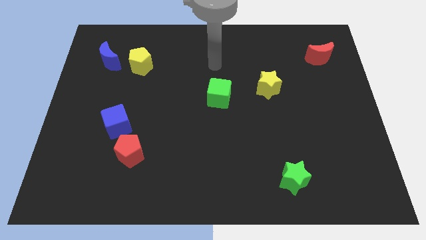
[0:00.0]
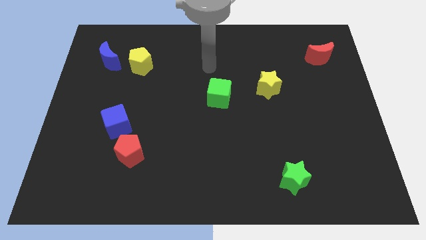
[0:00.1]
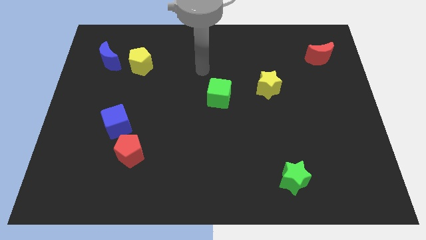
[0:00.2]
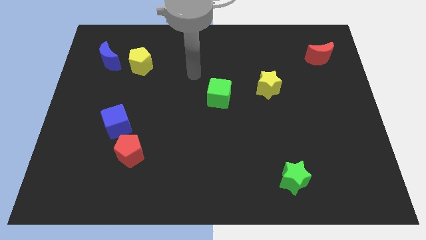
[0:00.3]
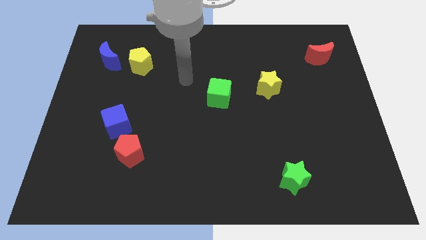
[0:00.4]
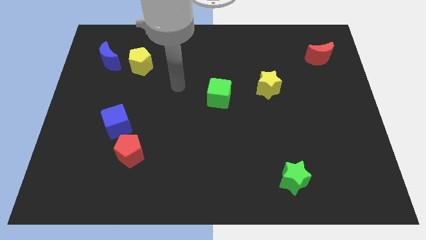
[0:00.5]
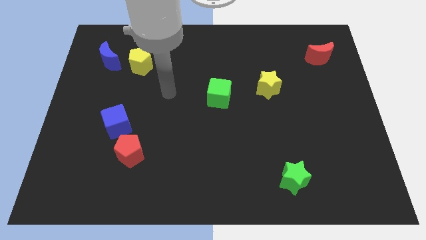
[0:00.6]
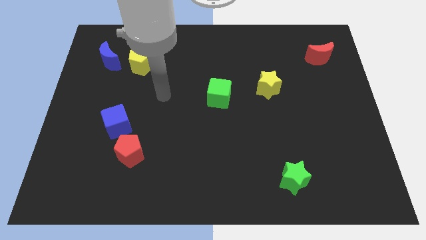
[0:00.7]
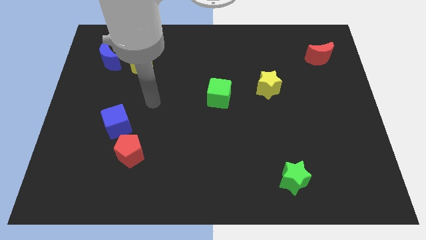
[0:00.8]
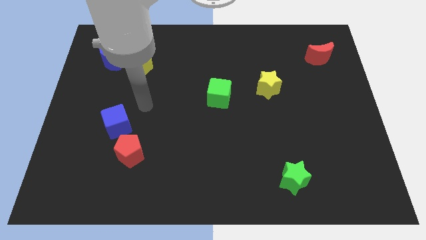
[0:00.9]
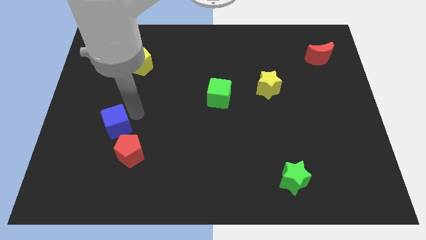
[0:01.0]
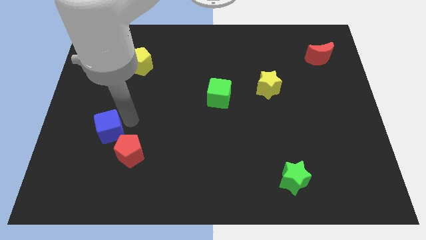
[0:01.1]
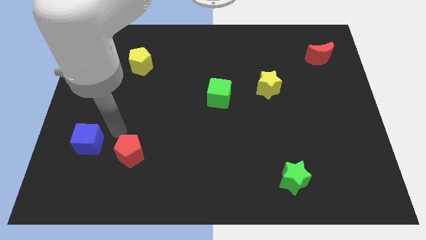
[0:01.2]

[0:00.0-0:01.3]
move the red pentagon away from the blue cube

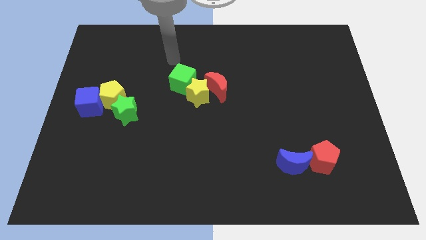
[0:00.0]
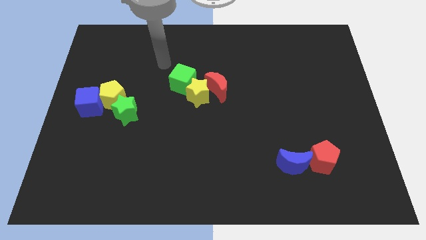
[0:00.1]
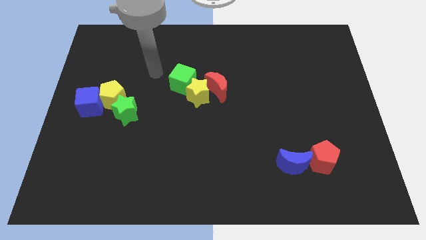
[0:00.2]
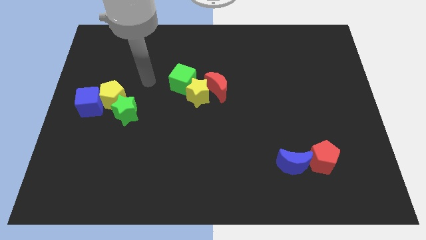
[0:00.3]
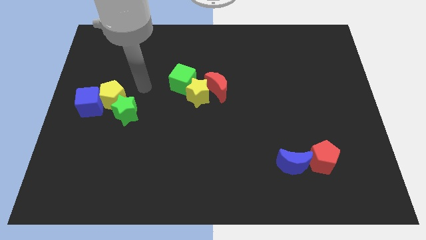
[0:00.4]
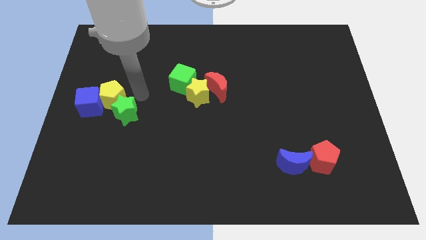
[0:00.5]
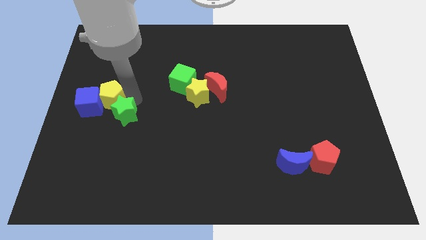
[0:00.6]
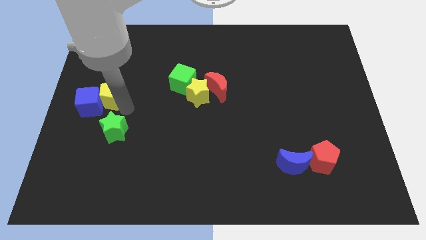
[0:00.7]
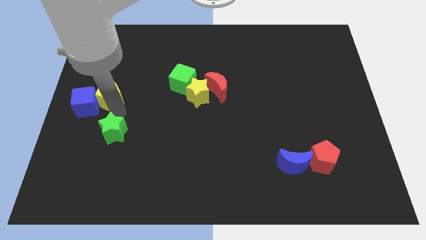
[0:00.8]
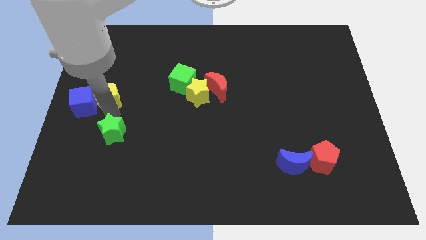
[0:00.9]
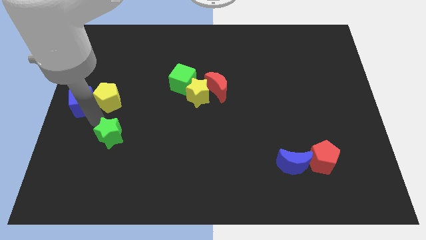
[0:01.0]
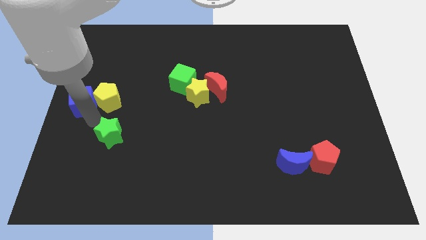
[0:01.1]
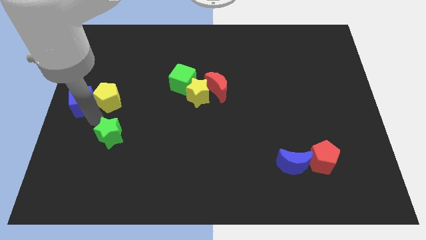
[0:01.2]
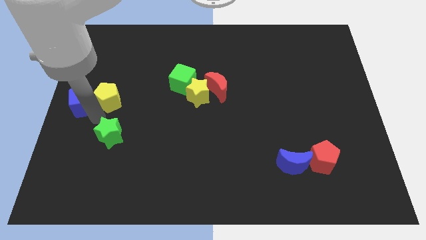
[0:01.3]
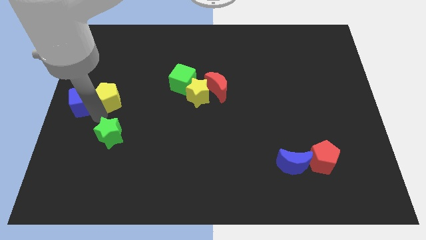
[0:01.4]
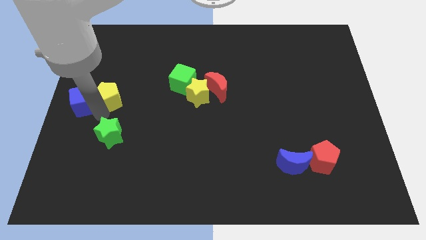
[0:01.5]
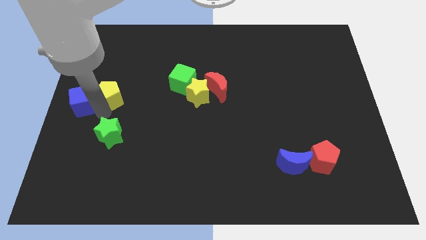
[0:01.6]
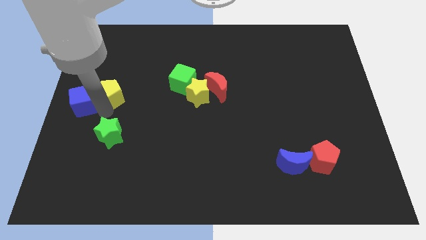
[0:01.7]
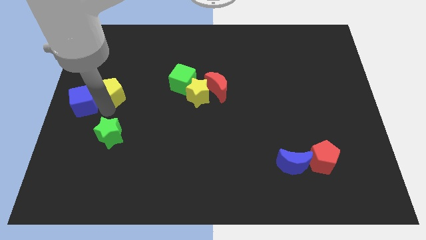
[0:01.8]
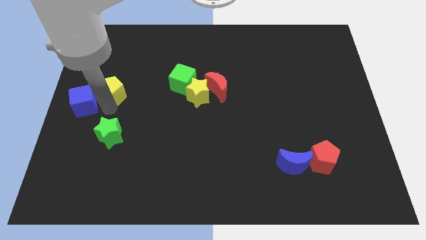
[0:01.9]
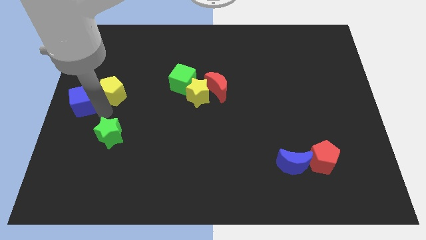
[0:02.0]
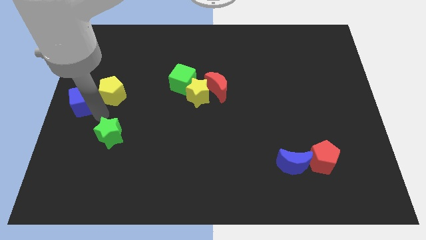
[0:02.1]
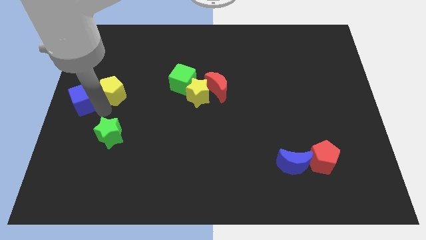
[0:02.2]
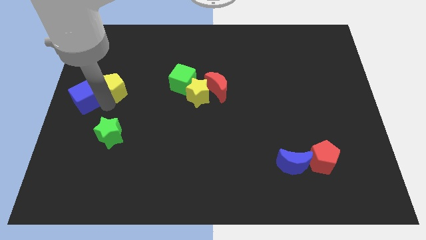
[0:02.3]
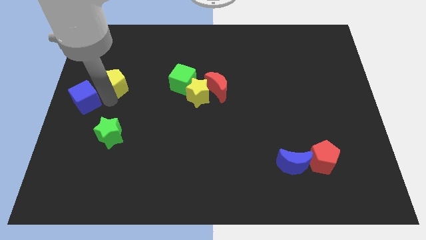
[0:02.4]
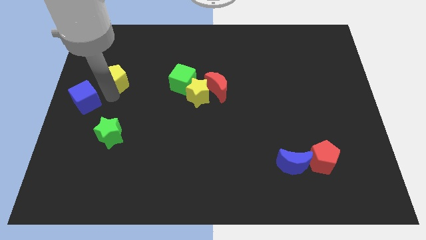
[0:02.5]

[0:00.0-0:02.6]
pull the yellow pentagon apart from the blue cube and green star

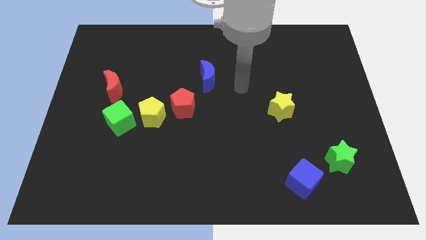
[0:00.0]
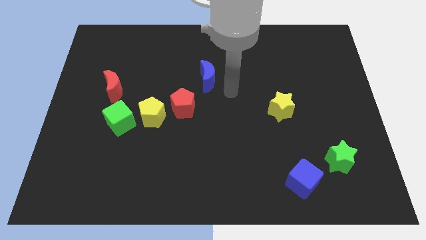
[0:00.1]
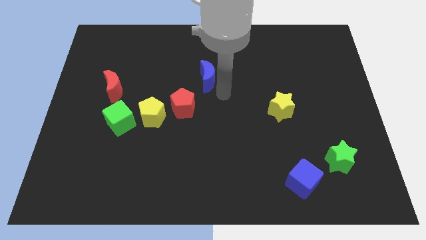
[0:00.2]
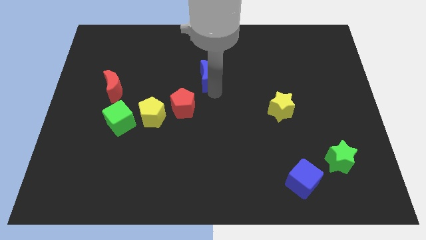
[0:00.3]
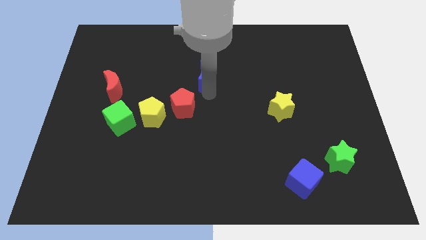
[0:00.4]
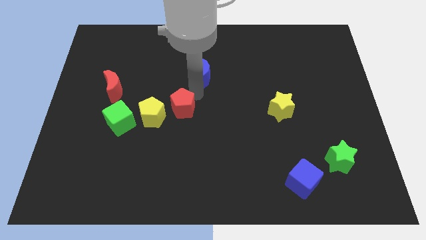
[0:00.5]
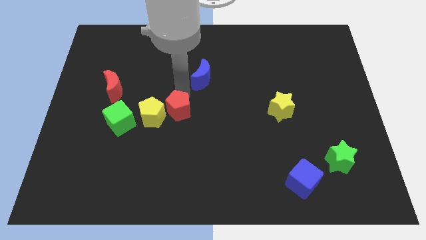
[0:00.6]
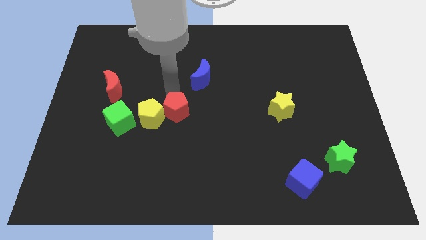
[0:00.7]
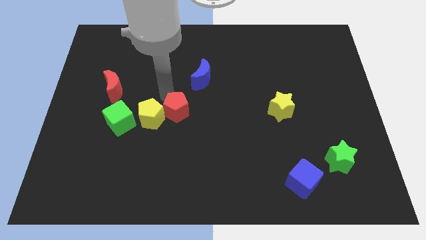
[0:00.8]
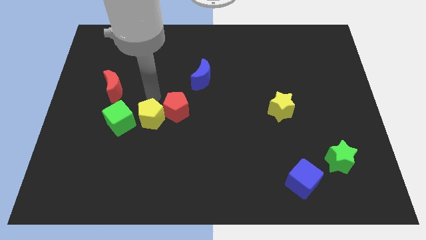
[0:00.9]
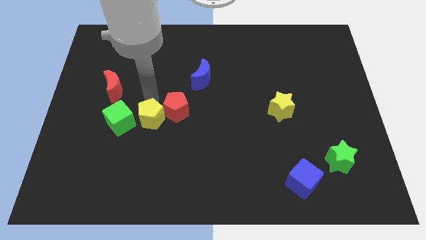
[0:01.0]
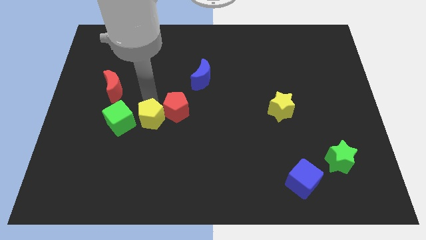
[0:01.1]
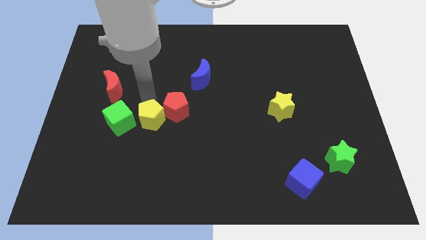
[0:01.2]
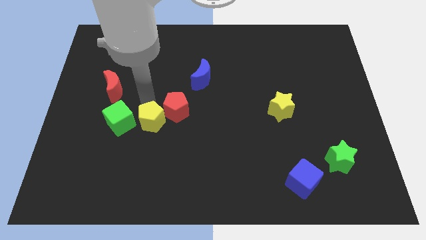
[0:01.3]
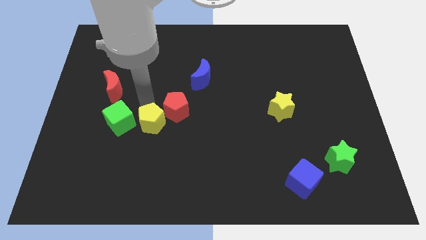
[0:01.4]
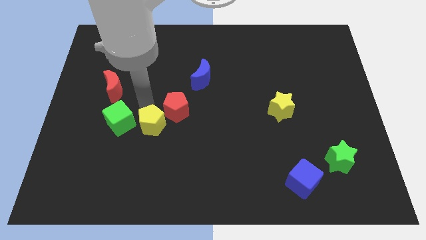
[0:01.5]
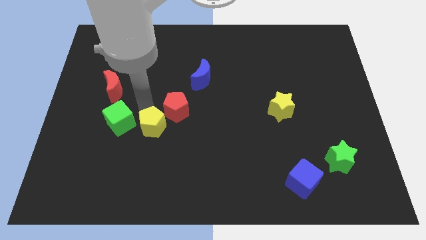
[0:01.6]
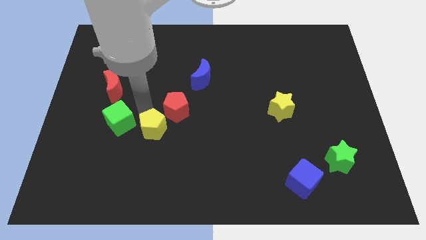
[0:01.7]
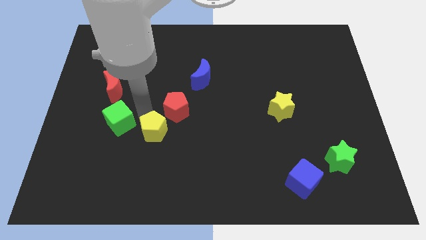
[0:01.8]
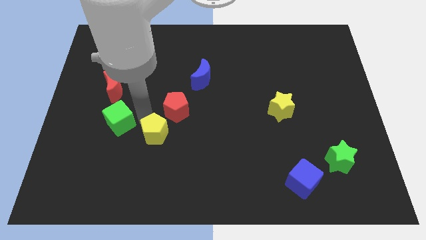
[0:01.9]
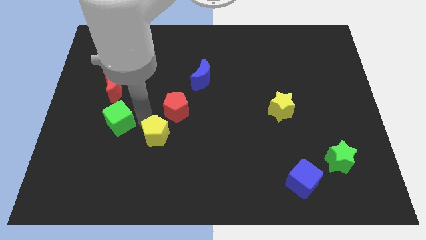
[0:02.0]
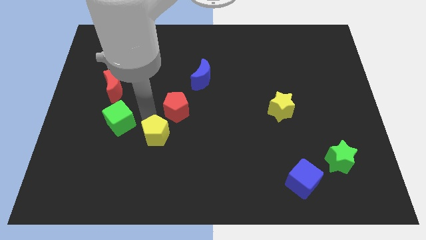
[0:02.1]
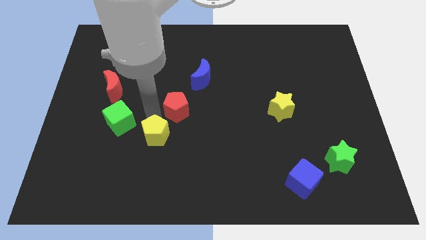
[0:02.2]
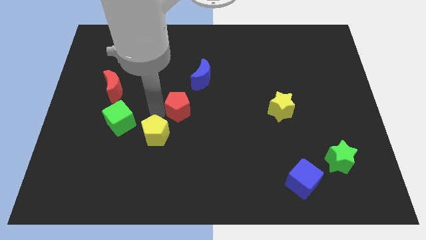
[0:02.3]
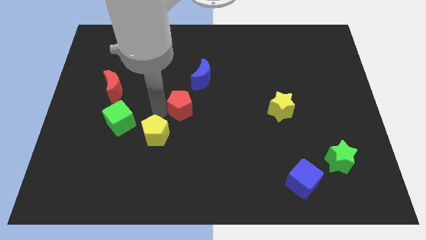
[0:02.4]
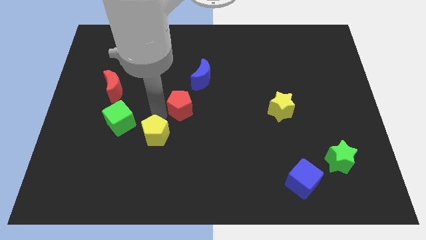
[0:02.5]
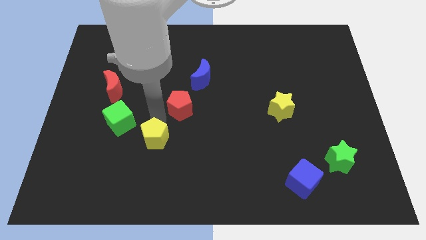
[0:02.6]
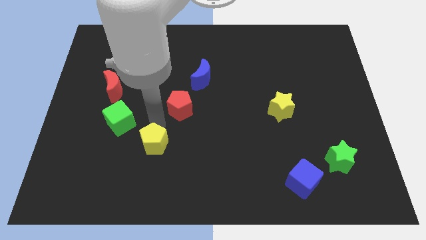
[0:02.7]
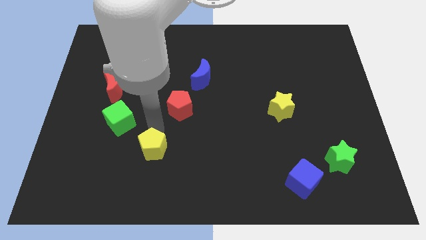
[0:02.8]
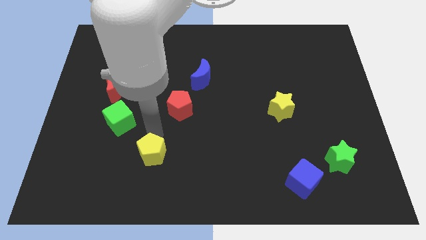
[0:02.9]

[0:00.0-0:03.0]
pull the yellow pentagon apart from the green cube and red pentagon

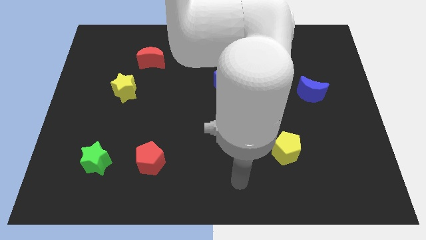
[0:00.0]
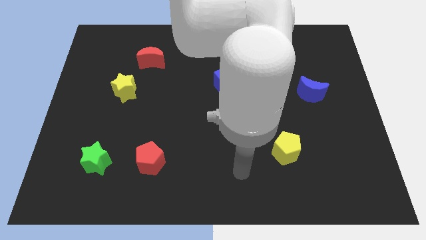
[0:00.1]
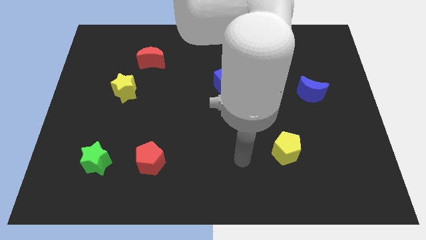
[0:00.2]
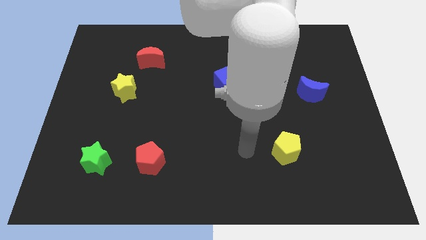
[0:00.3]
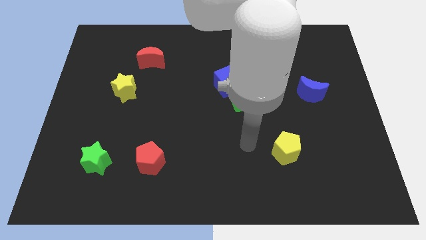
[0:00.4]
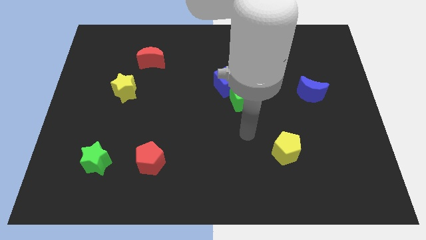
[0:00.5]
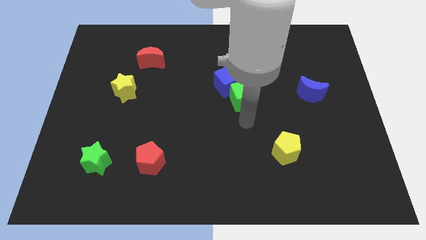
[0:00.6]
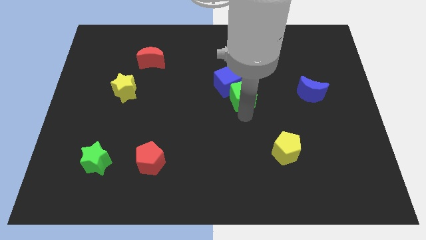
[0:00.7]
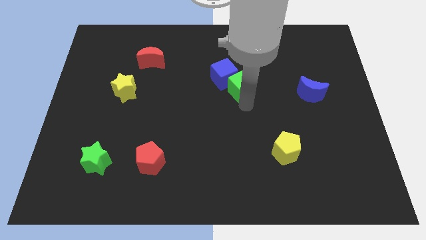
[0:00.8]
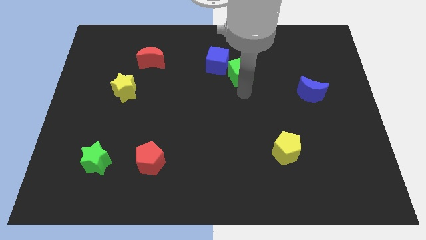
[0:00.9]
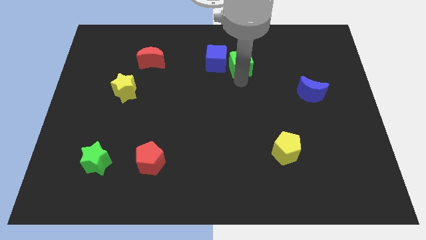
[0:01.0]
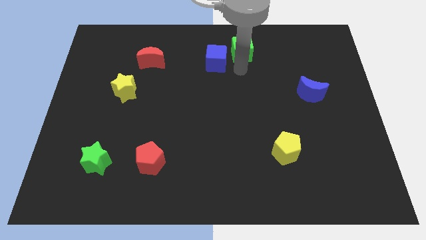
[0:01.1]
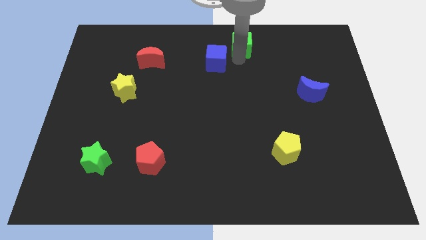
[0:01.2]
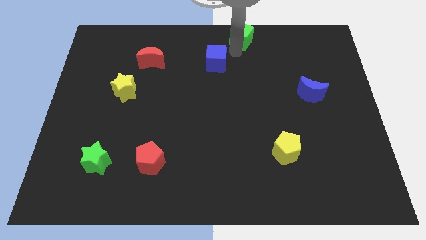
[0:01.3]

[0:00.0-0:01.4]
separate the blue cube from the green cube

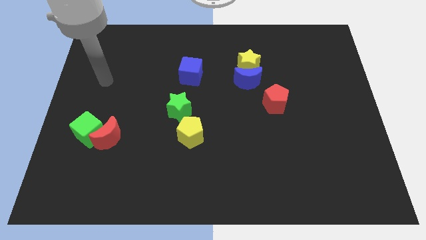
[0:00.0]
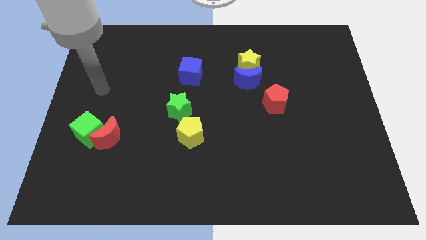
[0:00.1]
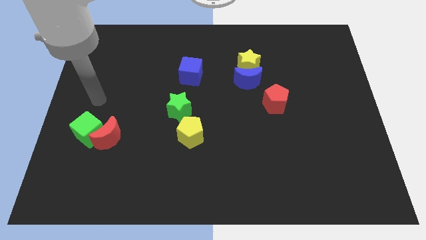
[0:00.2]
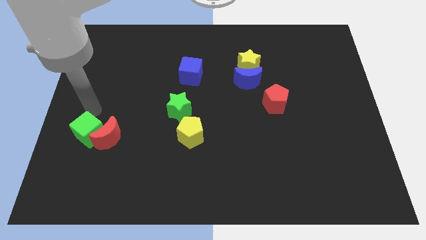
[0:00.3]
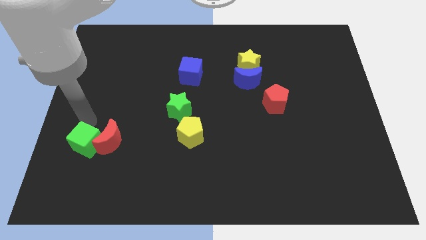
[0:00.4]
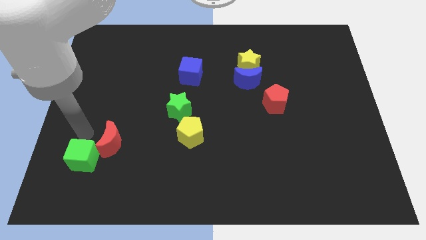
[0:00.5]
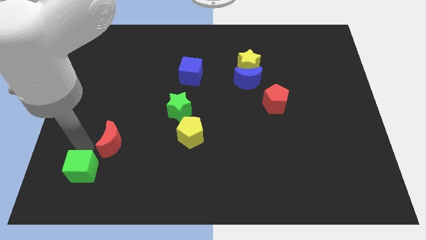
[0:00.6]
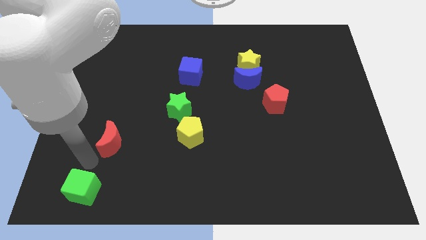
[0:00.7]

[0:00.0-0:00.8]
move the red moon away from the green cube

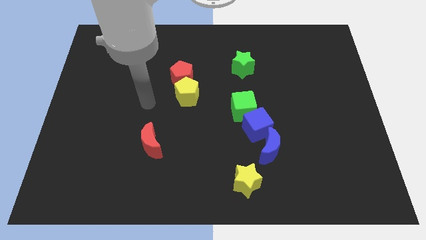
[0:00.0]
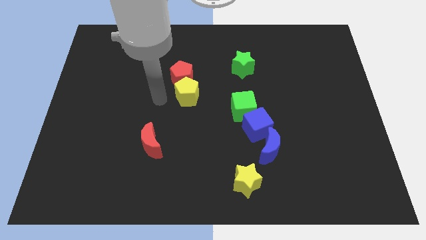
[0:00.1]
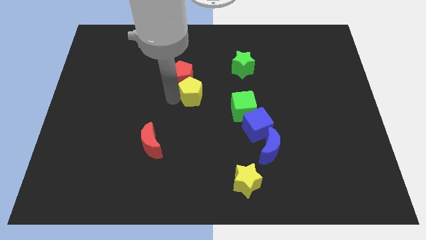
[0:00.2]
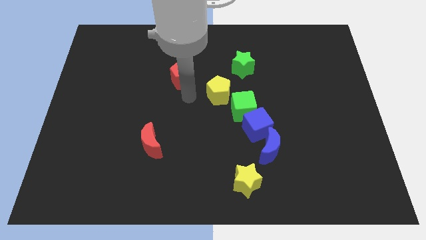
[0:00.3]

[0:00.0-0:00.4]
separate the red pentagon from the yellow pentagon

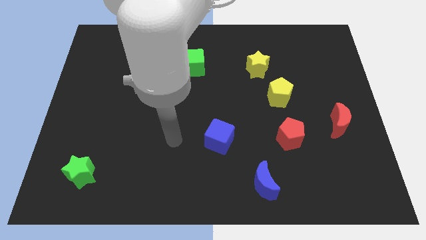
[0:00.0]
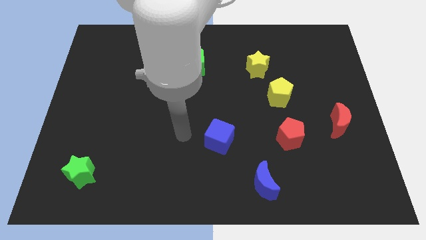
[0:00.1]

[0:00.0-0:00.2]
separate the yellow star from the yellow pentagon
